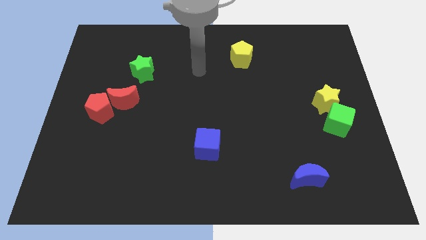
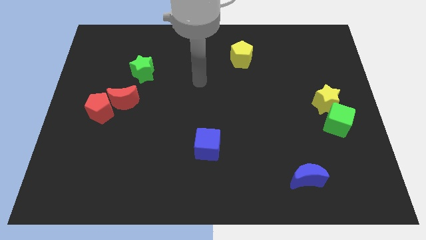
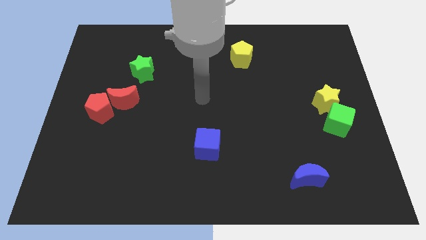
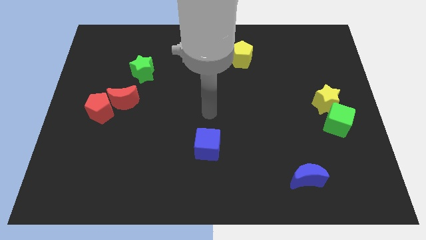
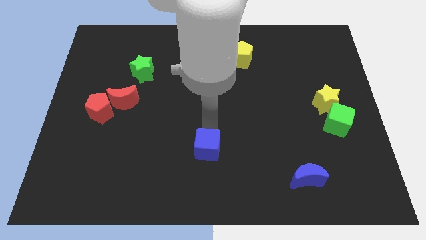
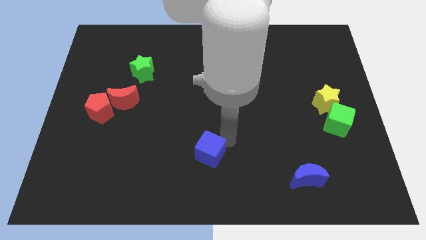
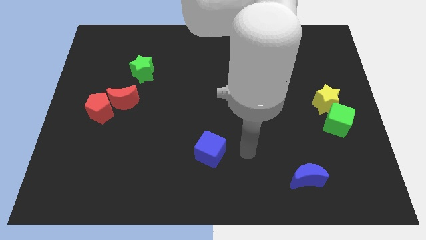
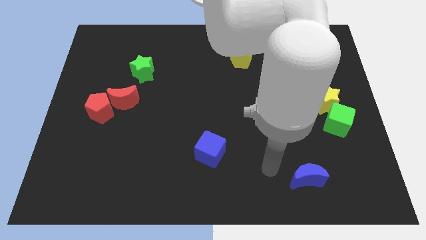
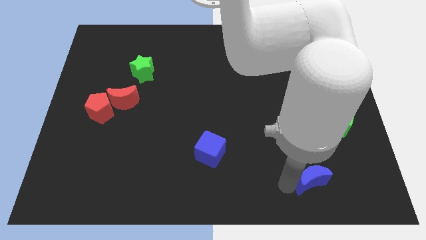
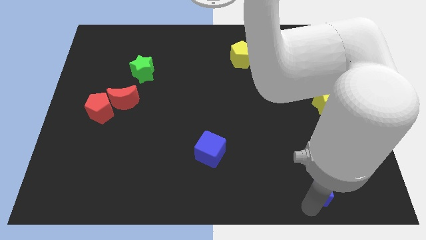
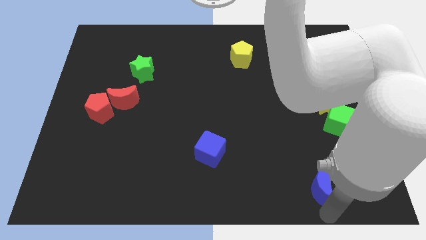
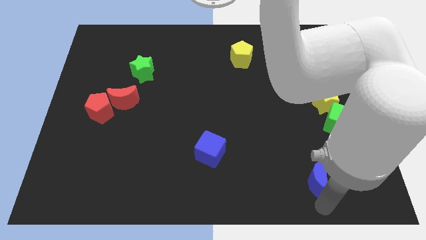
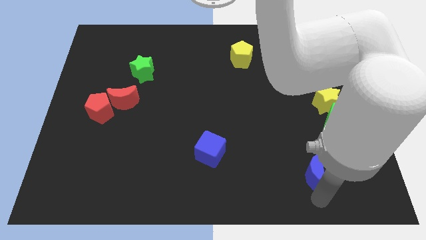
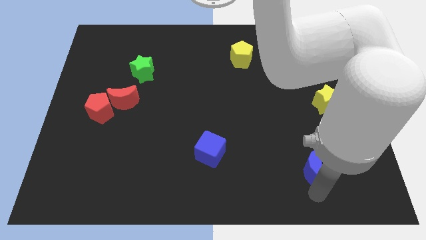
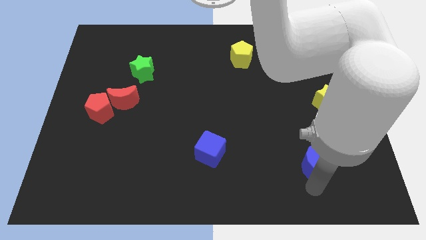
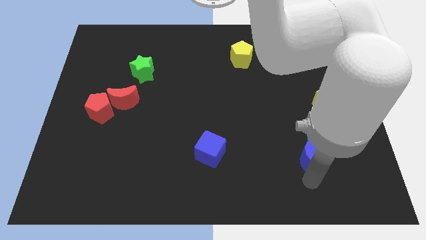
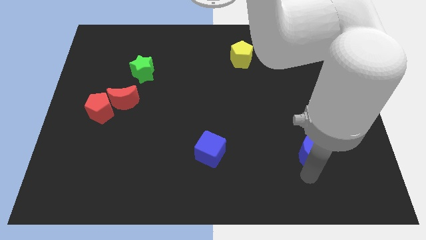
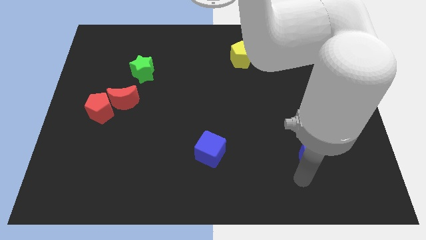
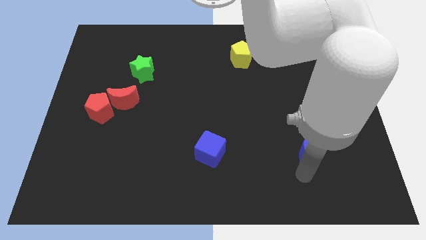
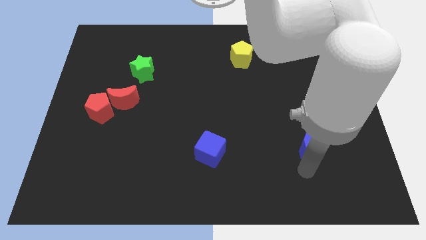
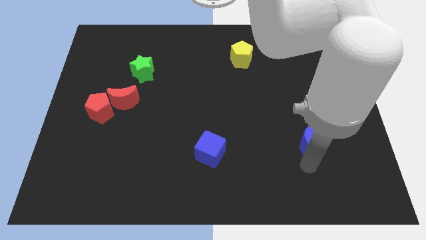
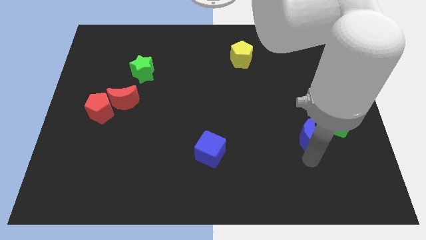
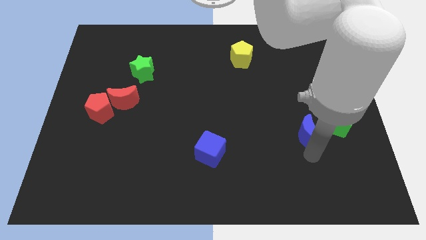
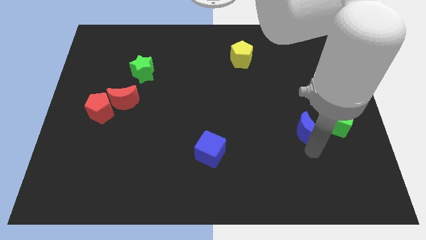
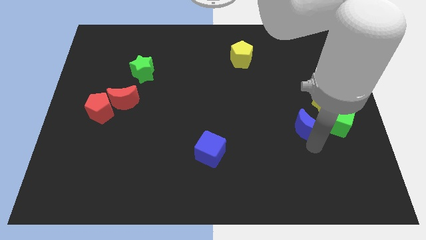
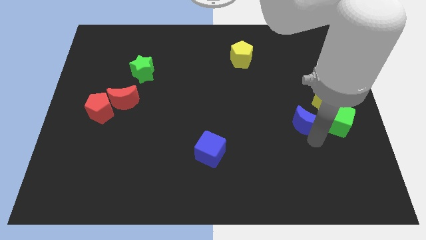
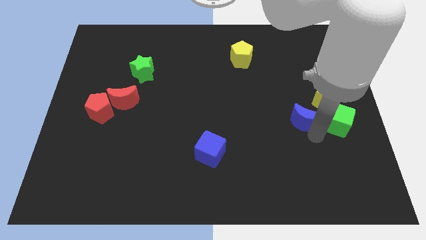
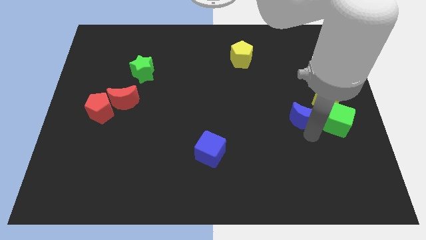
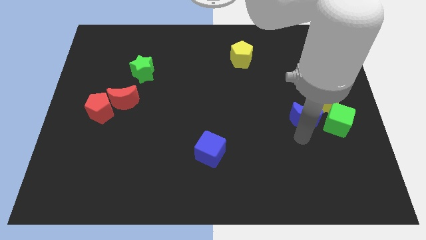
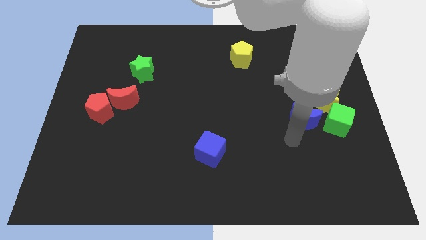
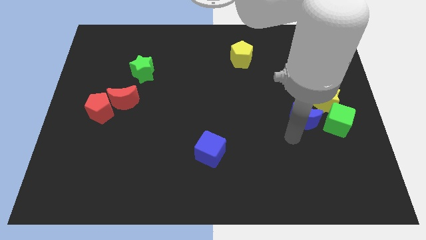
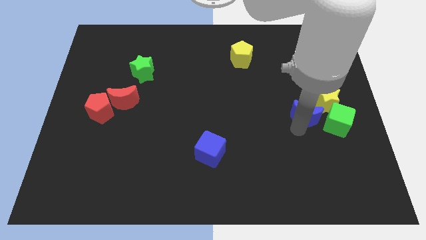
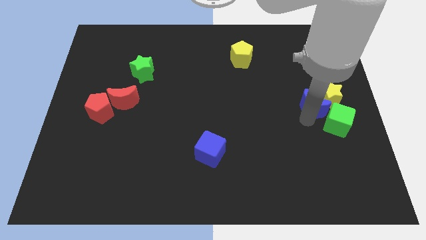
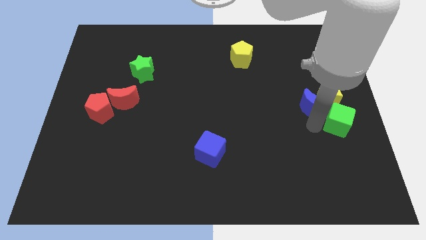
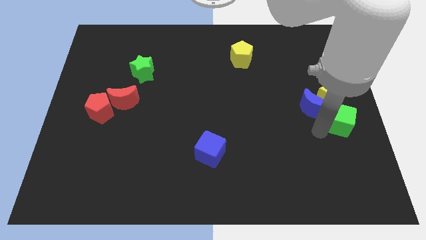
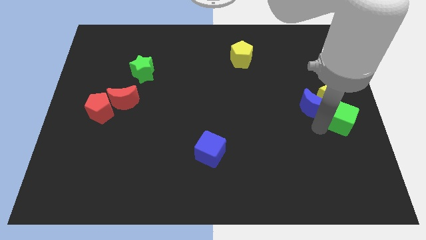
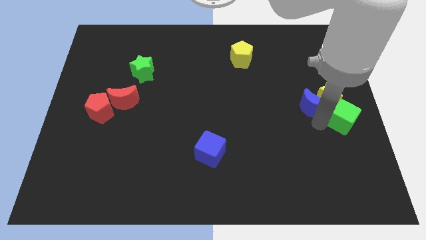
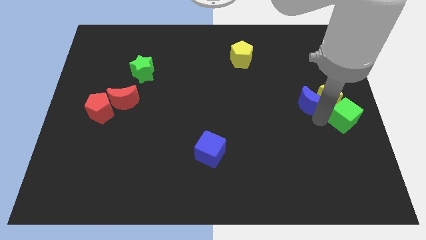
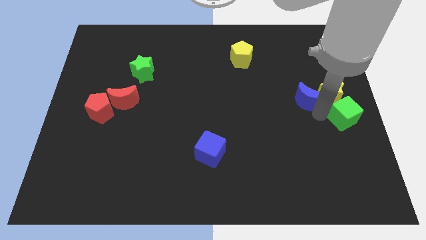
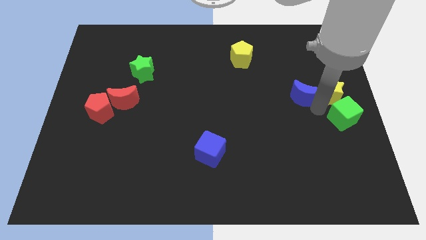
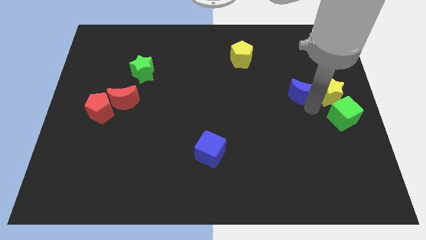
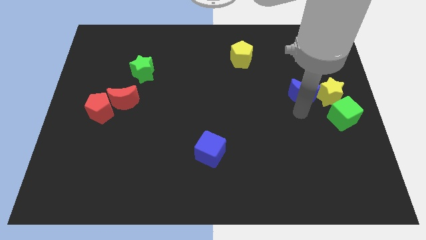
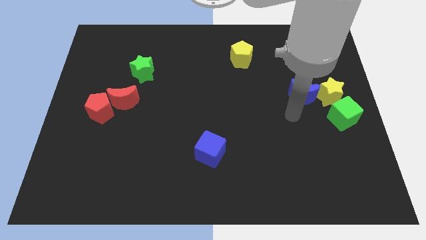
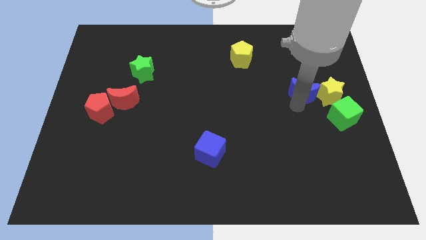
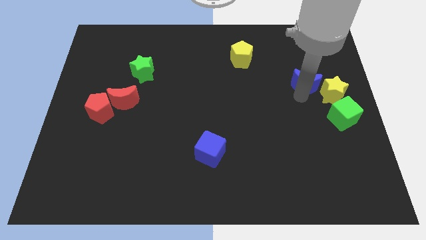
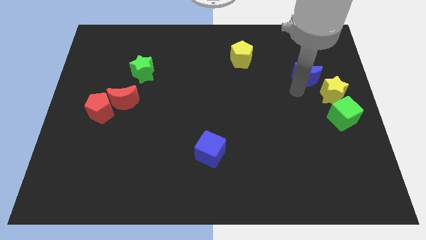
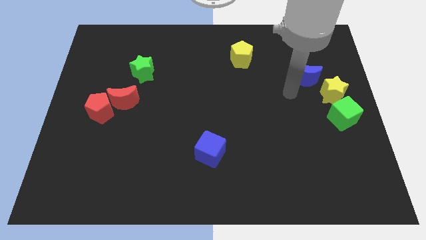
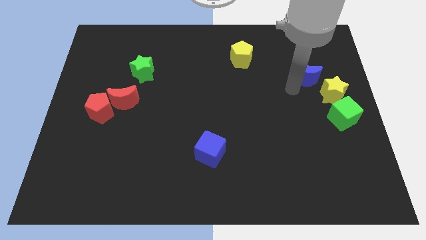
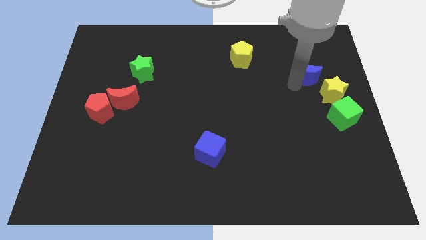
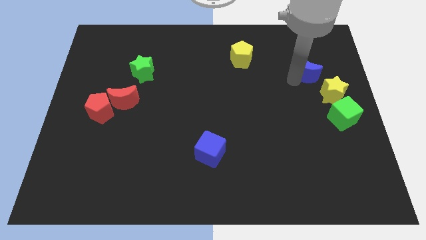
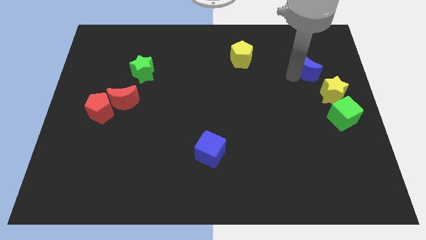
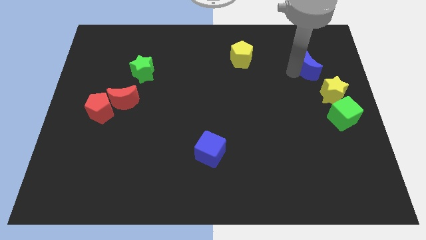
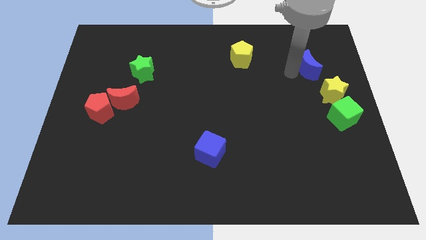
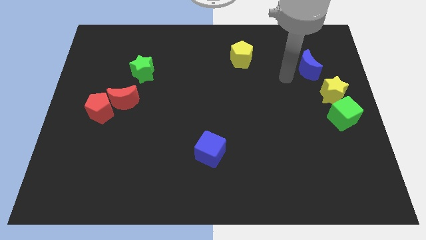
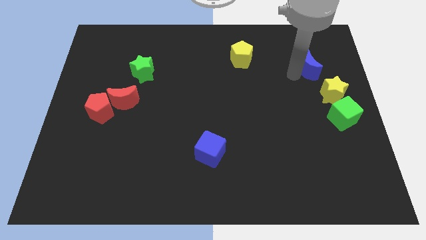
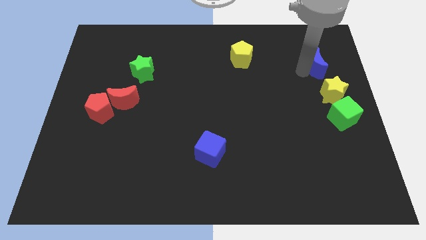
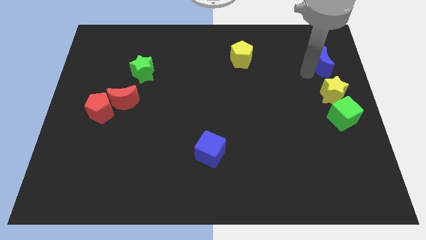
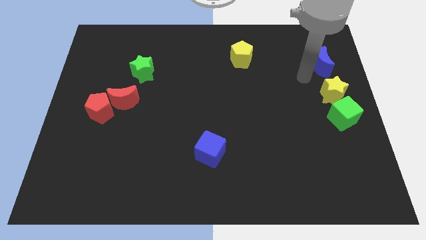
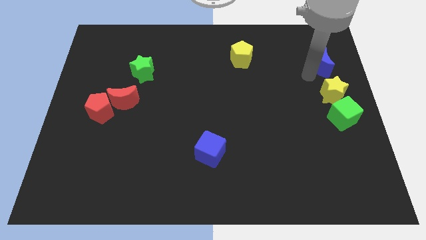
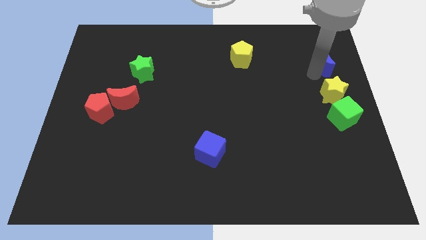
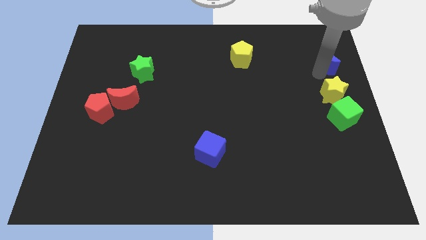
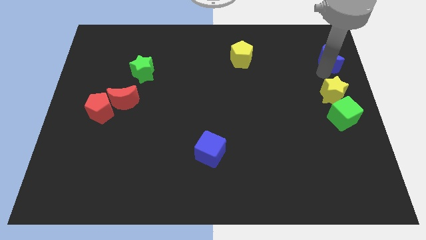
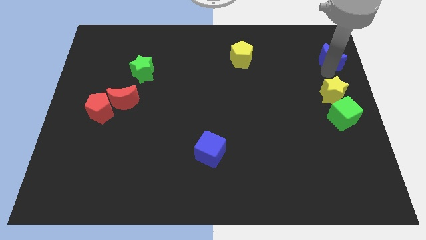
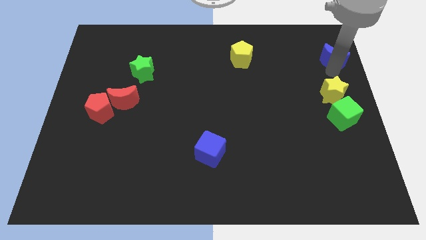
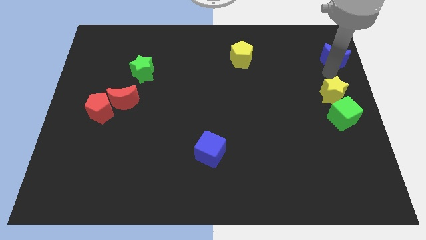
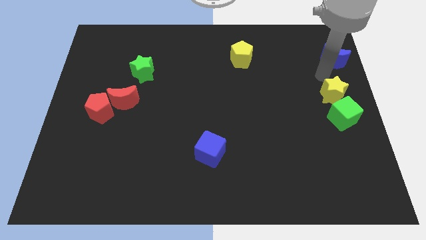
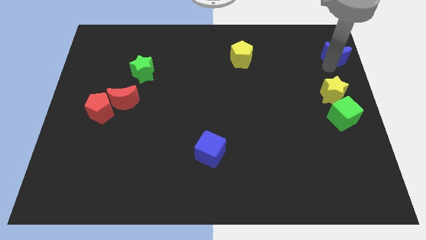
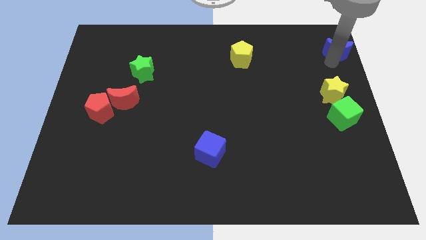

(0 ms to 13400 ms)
slide the blue moon to the top right
